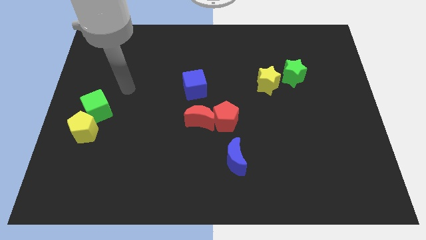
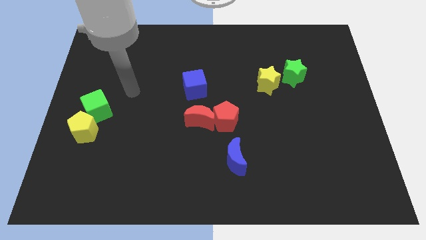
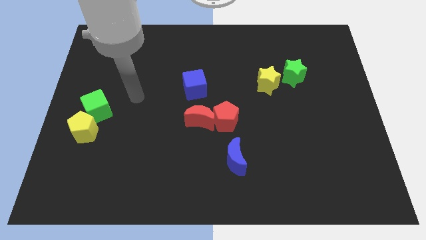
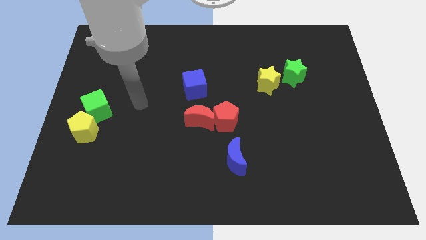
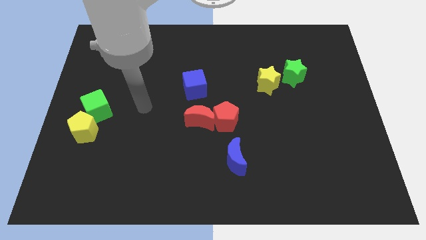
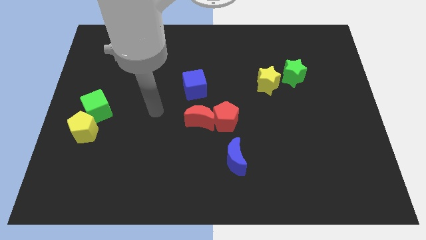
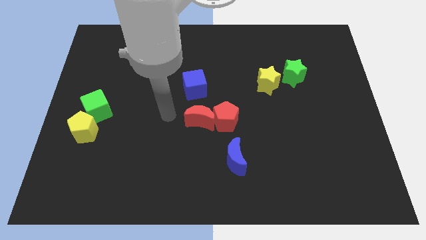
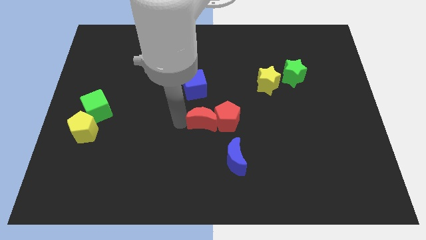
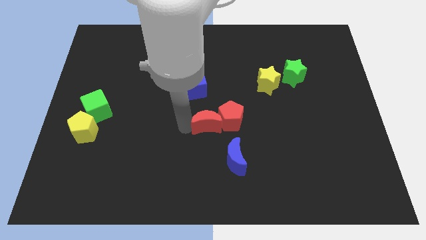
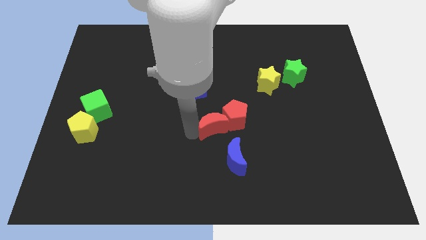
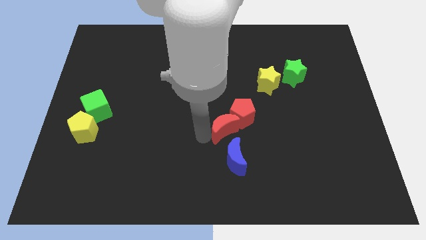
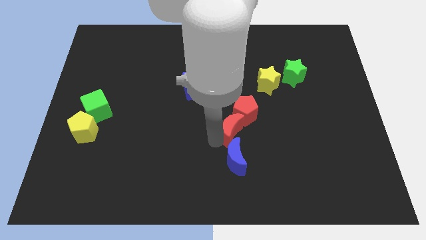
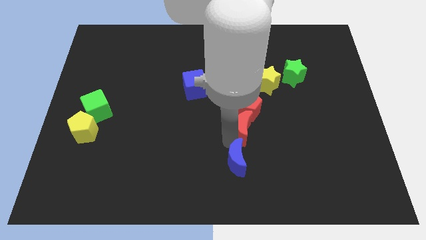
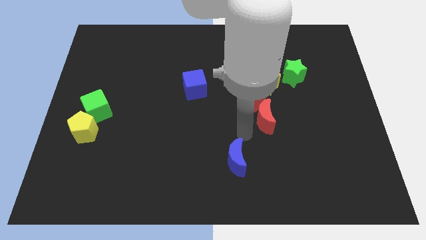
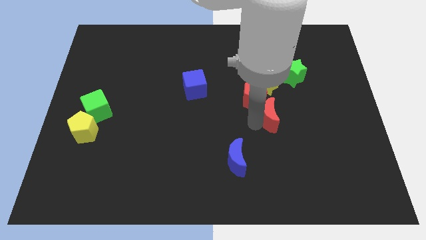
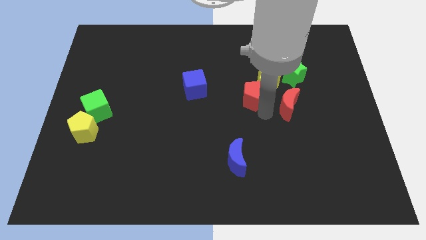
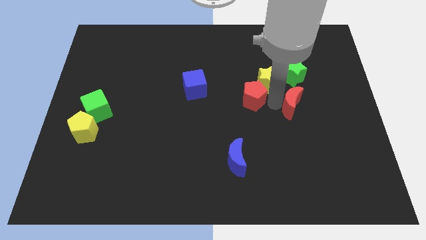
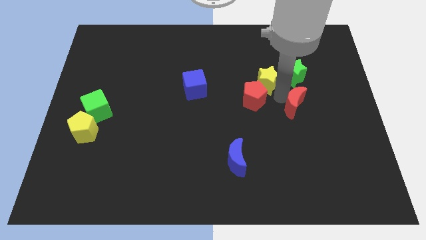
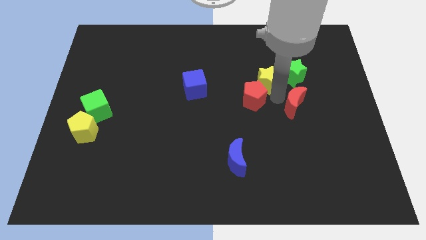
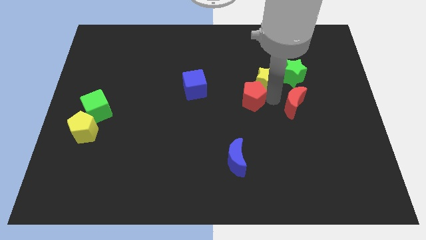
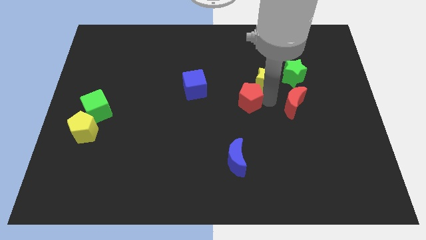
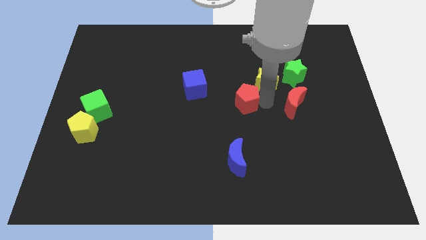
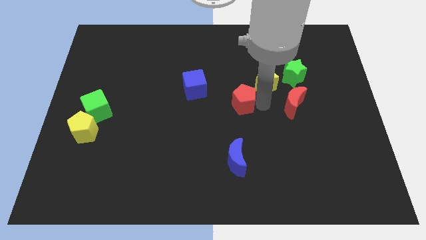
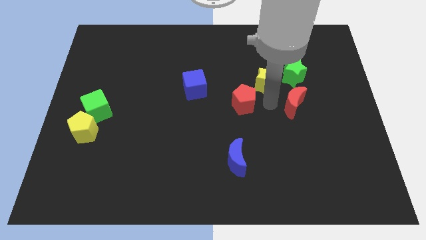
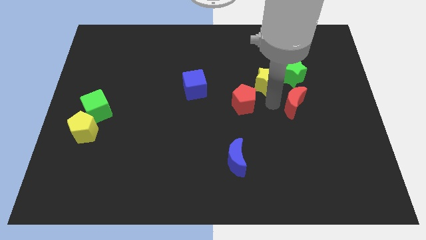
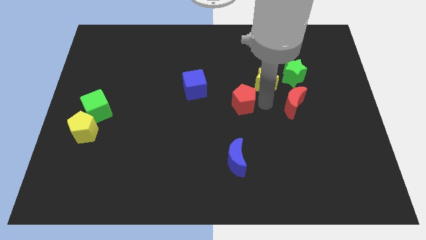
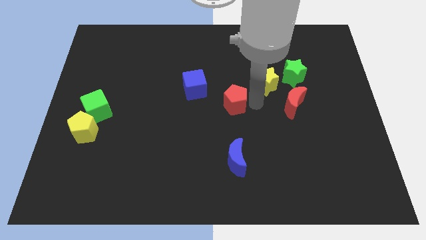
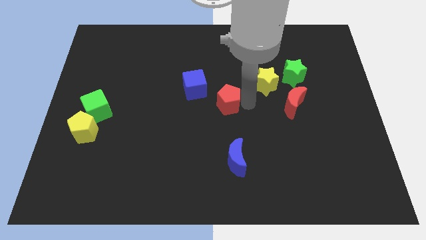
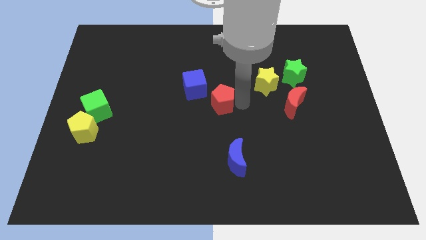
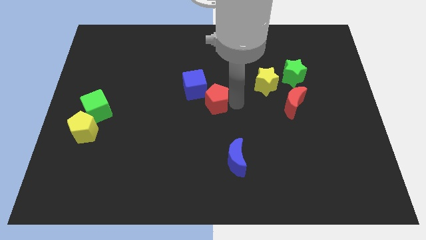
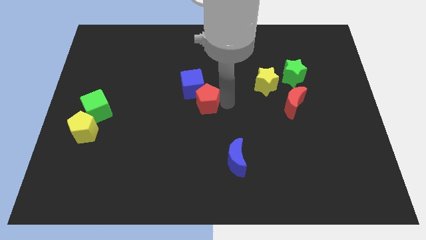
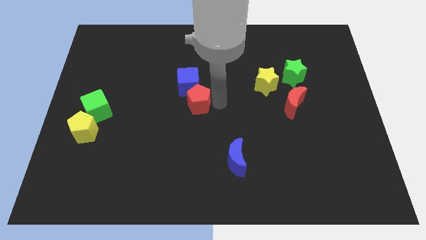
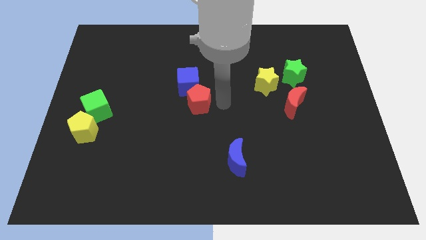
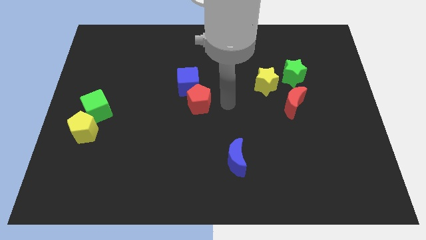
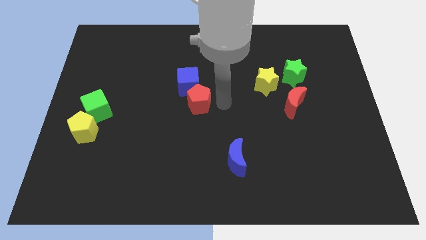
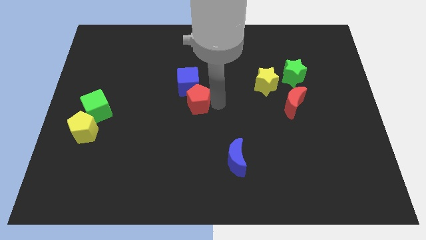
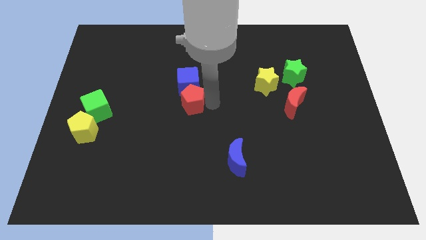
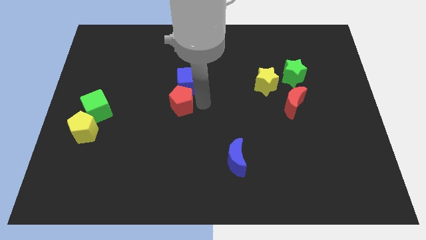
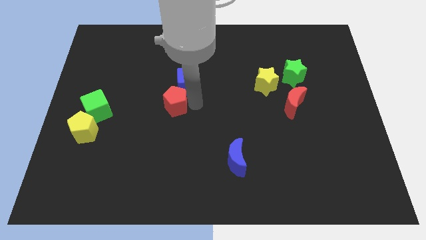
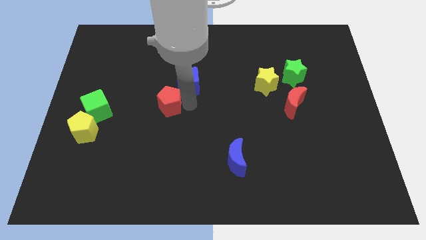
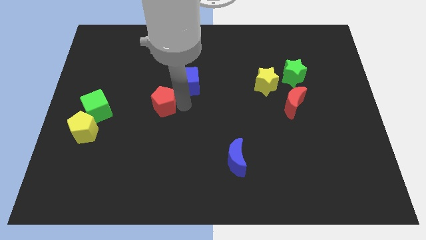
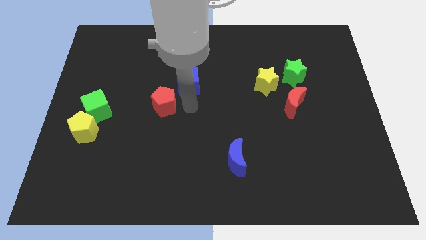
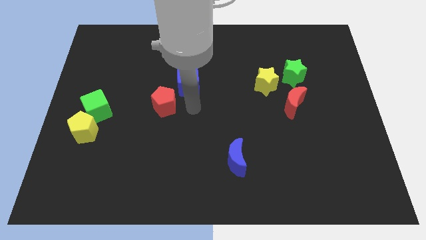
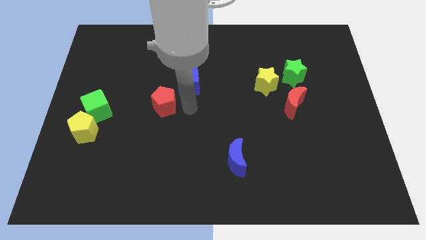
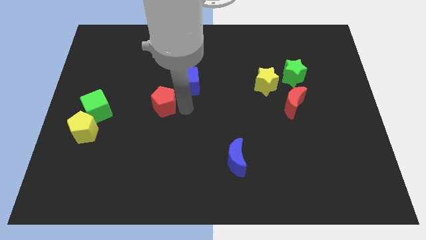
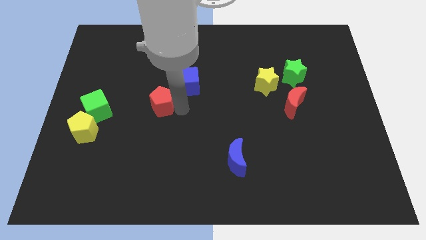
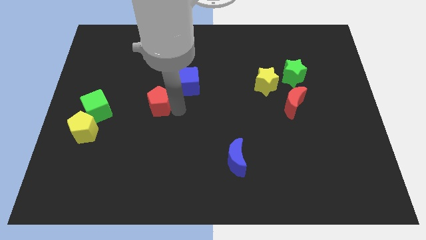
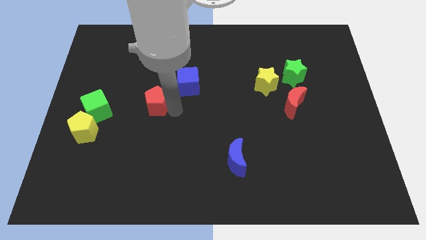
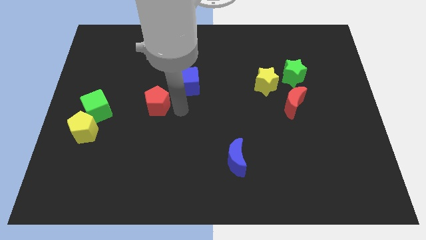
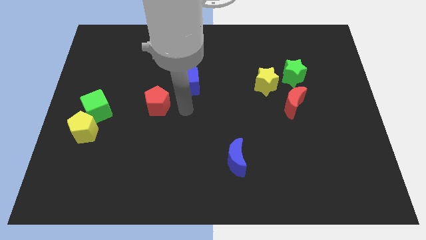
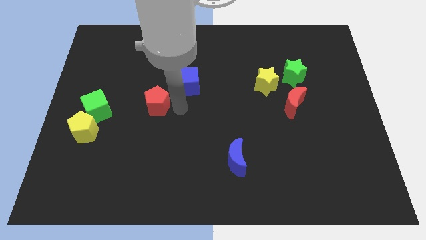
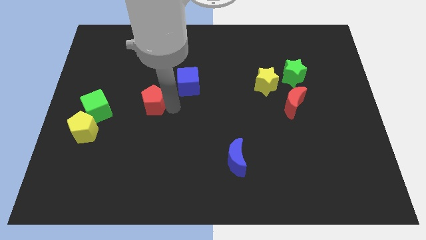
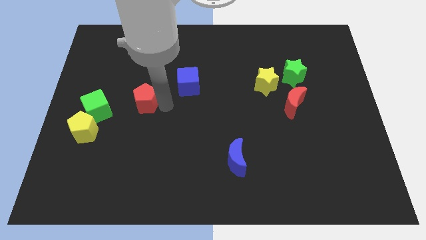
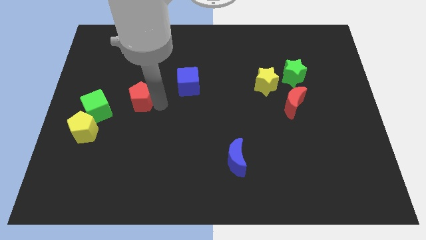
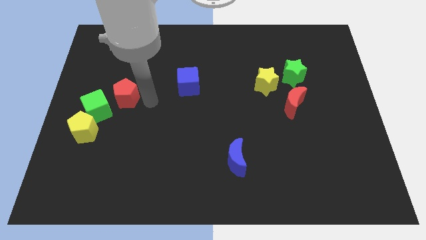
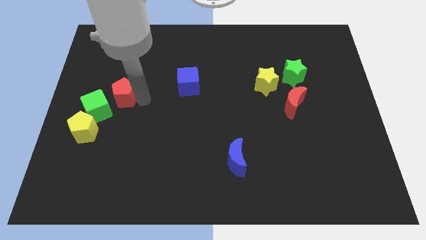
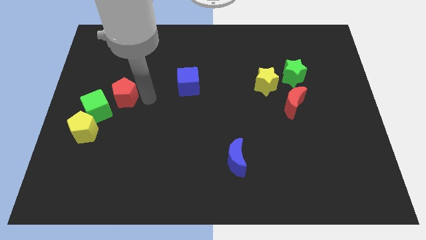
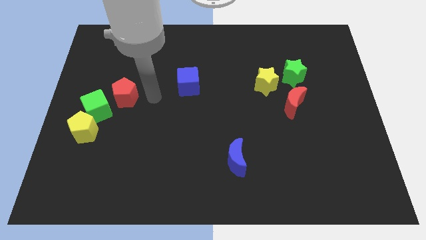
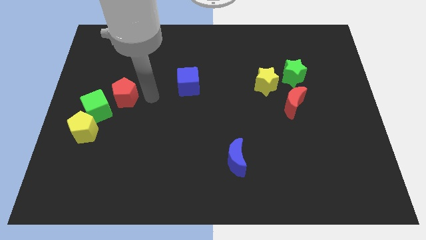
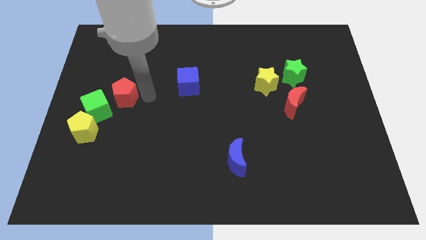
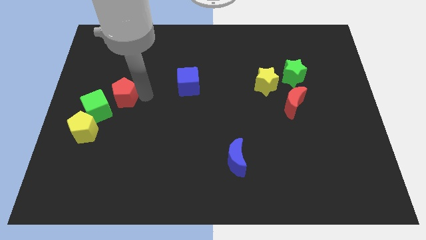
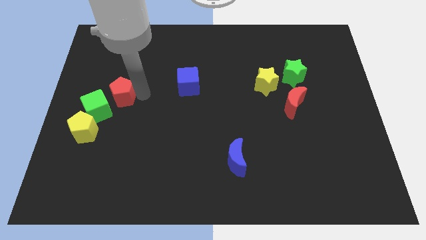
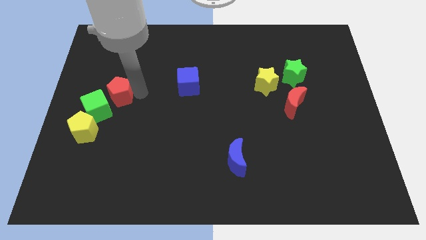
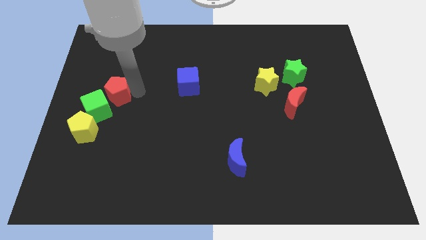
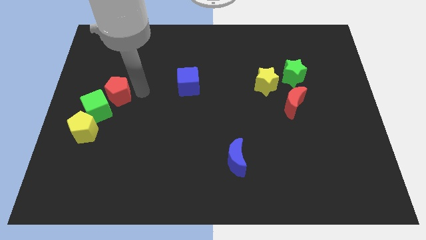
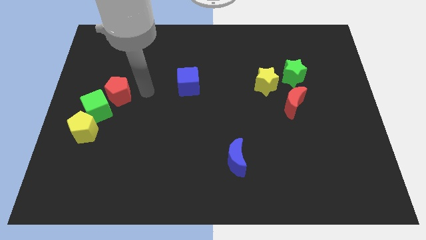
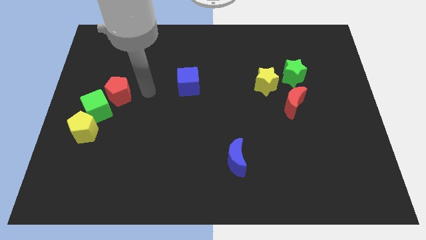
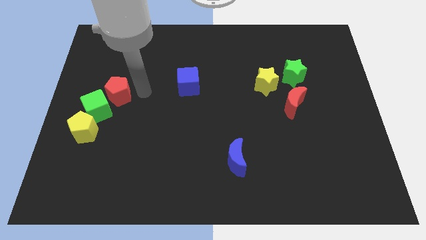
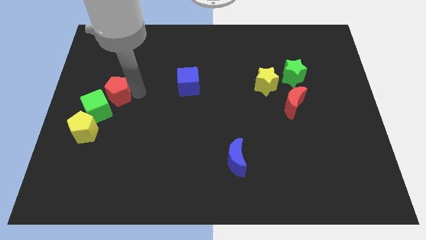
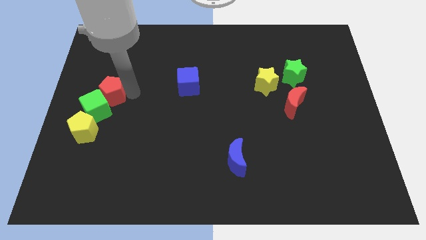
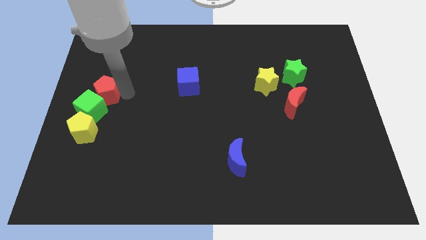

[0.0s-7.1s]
put the red pentagon to the left side
